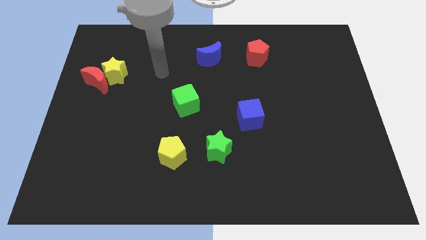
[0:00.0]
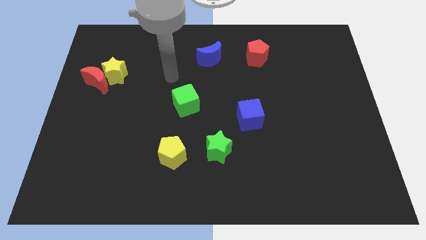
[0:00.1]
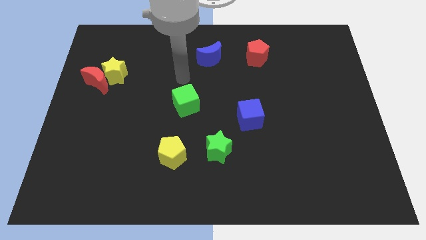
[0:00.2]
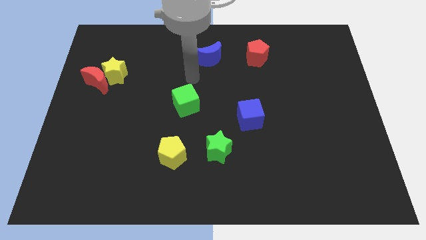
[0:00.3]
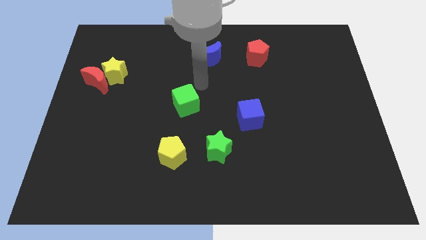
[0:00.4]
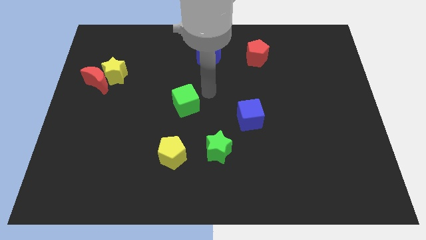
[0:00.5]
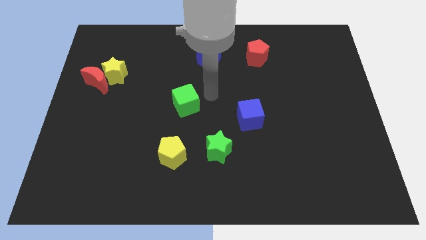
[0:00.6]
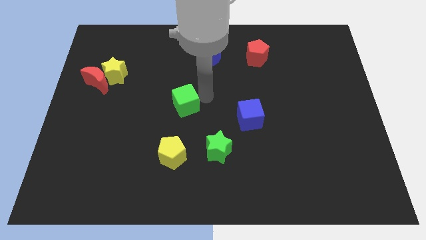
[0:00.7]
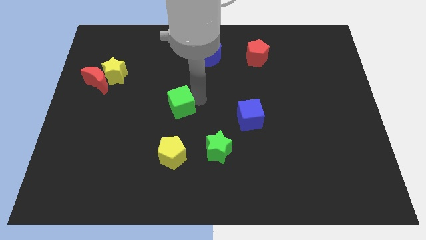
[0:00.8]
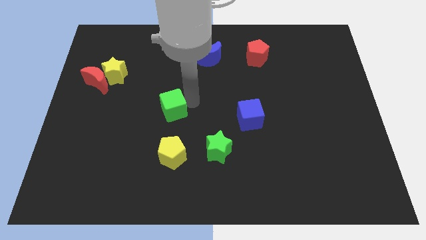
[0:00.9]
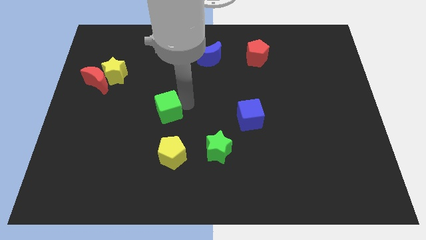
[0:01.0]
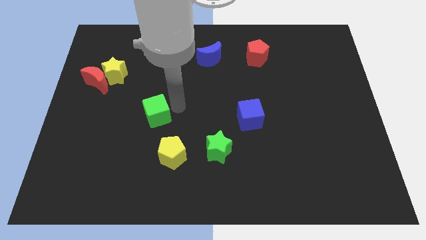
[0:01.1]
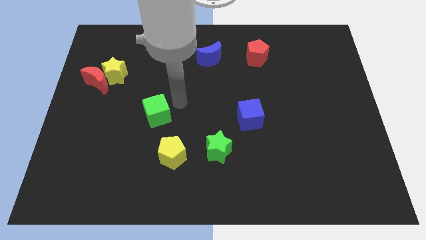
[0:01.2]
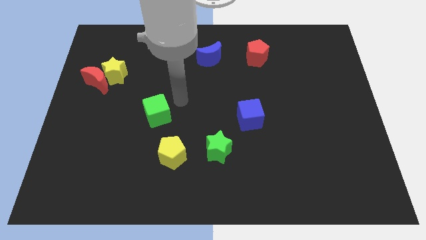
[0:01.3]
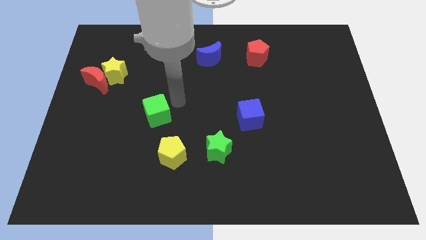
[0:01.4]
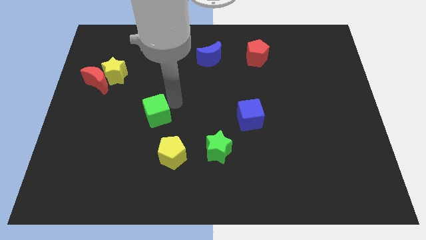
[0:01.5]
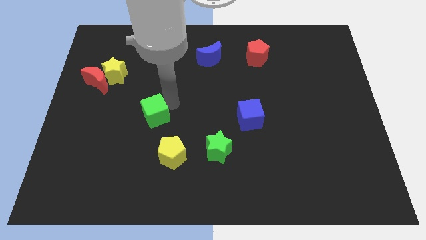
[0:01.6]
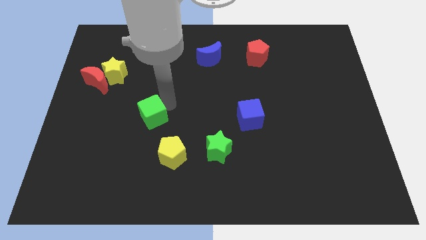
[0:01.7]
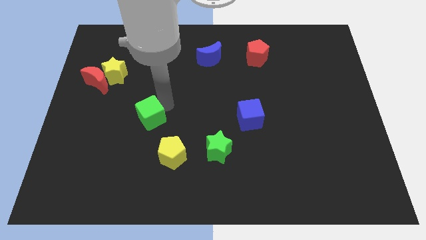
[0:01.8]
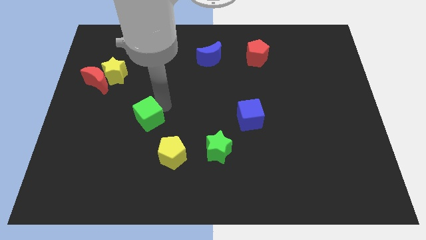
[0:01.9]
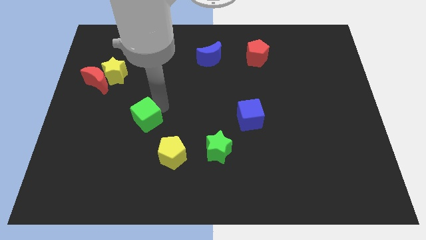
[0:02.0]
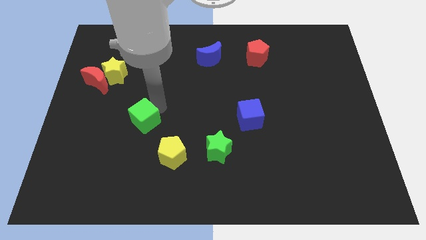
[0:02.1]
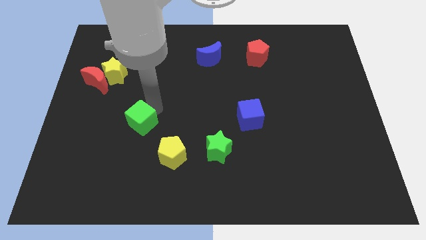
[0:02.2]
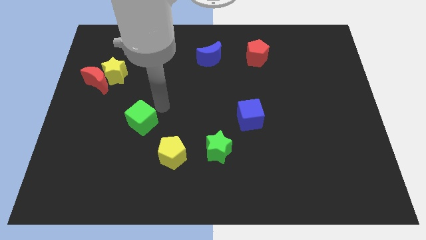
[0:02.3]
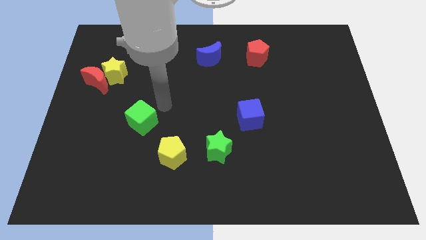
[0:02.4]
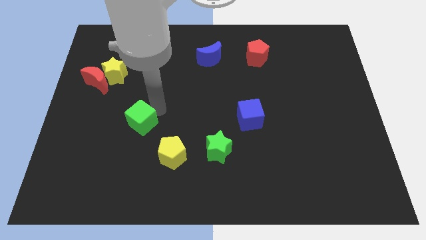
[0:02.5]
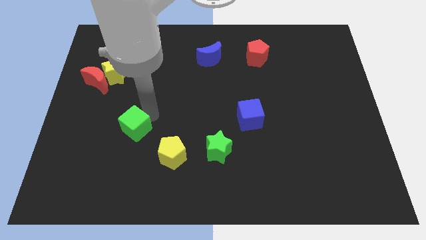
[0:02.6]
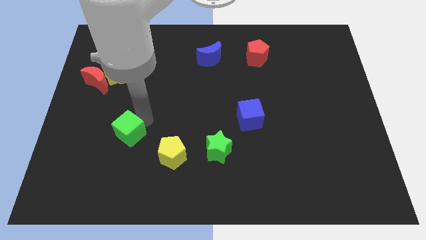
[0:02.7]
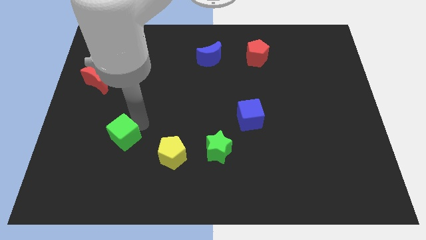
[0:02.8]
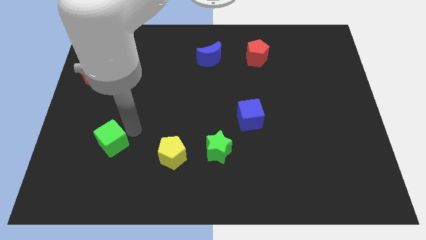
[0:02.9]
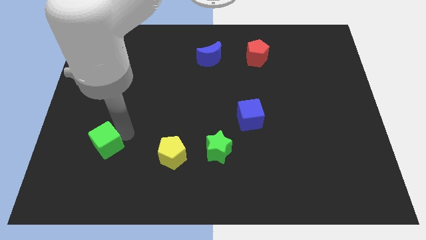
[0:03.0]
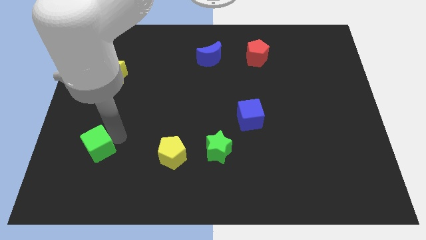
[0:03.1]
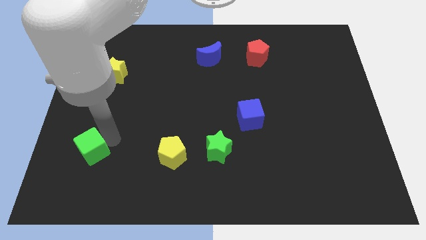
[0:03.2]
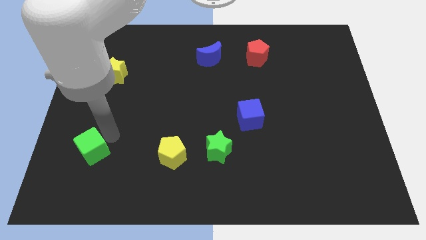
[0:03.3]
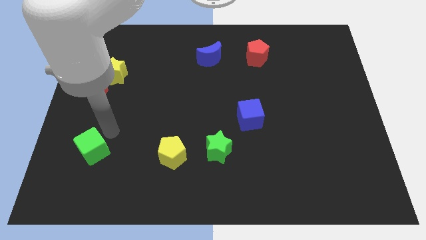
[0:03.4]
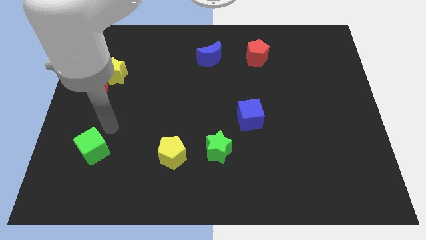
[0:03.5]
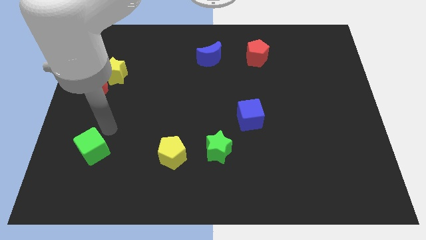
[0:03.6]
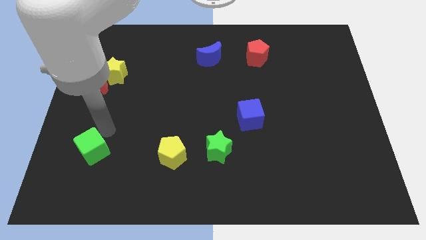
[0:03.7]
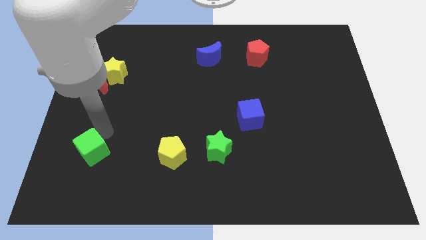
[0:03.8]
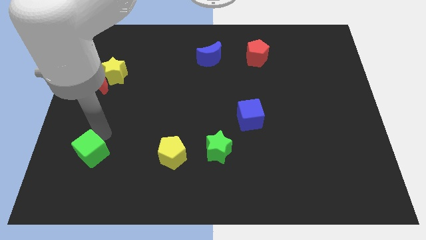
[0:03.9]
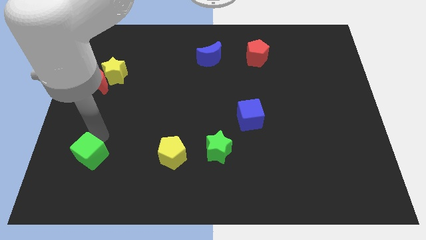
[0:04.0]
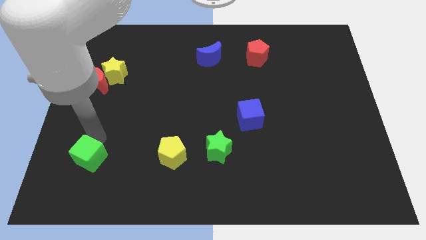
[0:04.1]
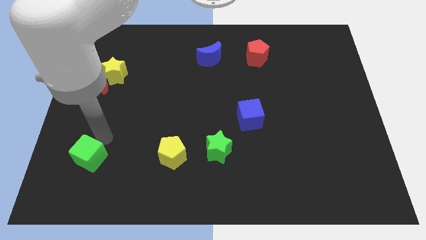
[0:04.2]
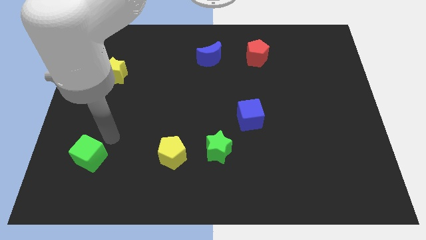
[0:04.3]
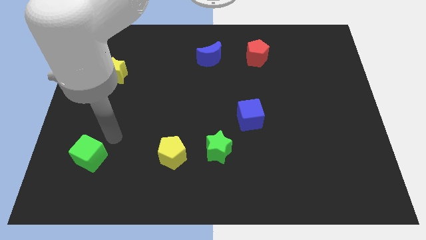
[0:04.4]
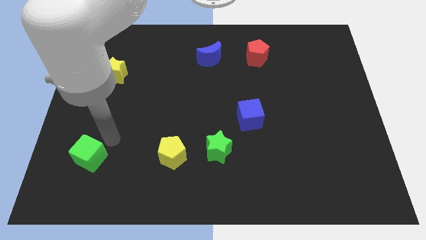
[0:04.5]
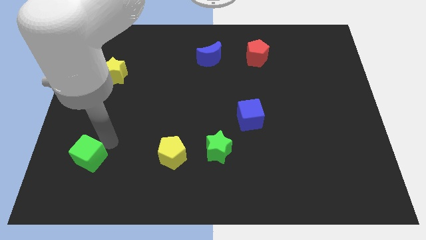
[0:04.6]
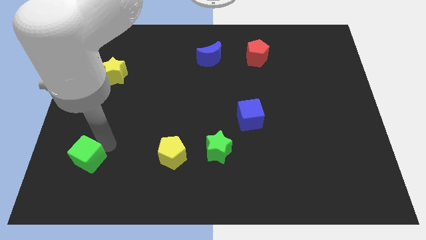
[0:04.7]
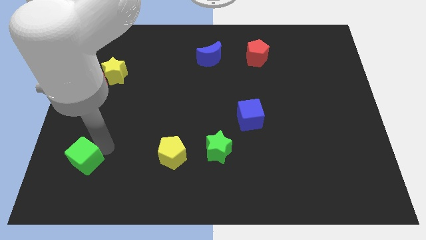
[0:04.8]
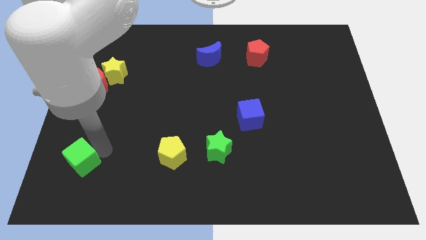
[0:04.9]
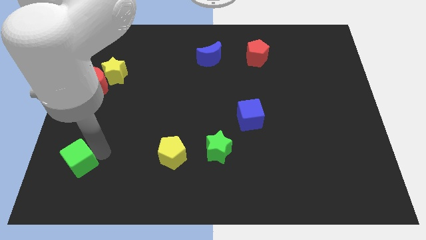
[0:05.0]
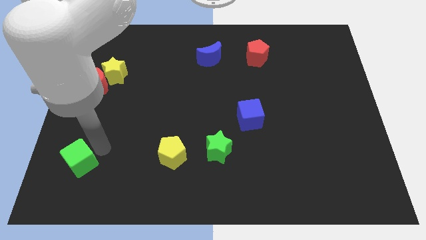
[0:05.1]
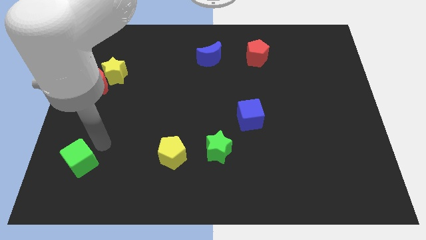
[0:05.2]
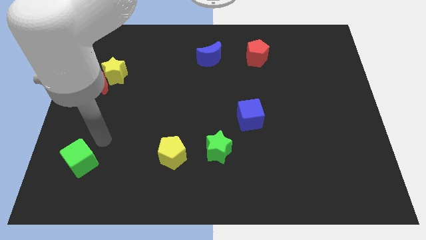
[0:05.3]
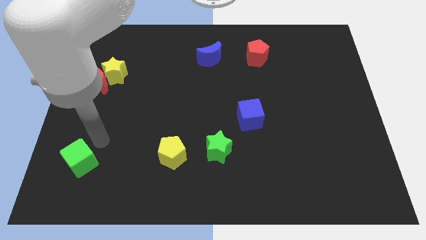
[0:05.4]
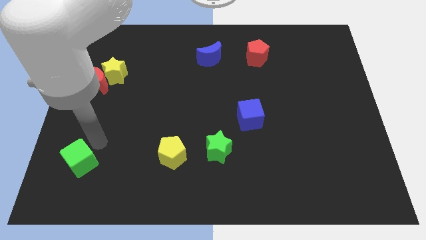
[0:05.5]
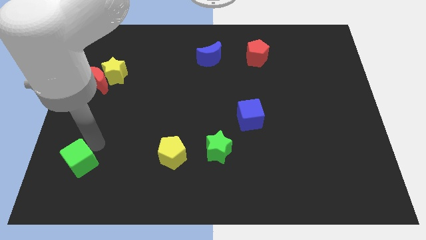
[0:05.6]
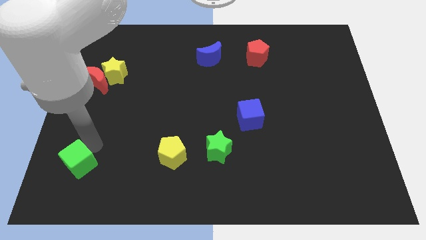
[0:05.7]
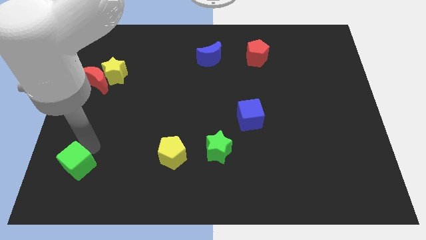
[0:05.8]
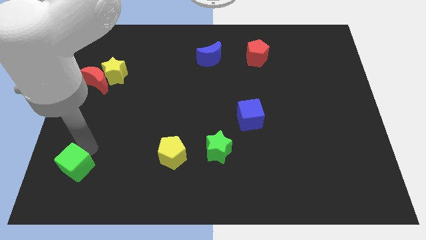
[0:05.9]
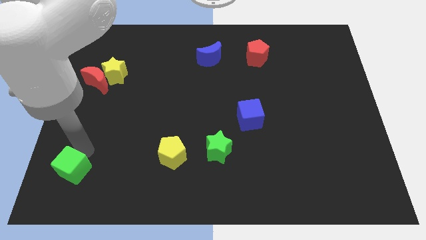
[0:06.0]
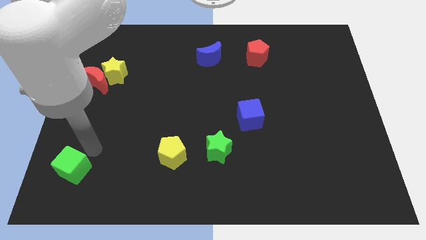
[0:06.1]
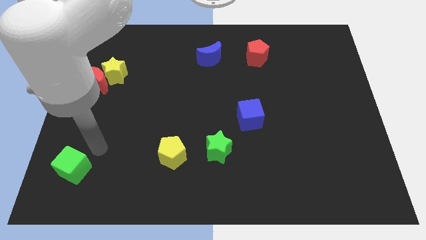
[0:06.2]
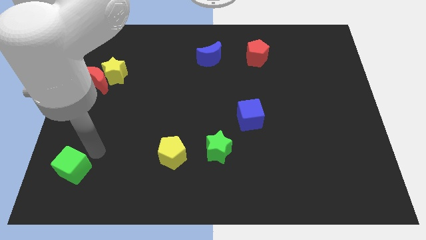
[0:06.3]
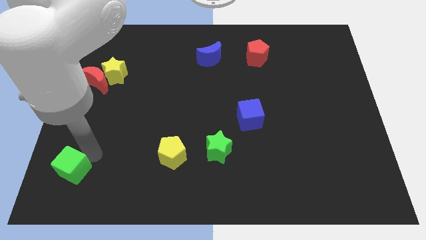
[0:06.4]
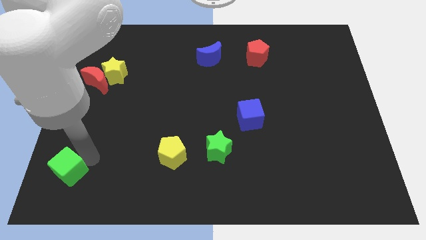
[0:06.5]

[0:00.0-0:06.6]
move the green cube to the lower left corner

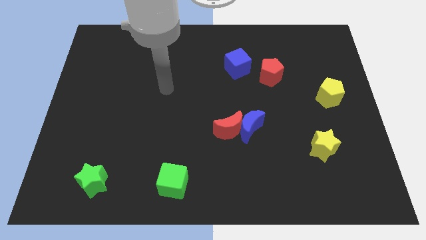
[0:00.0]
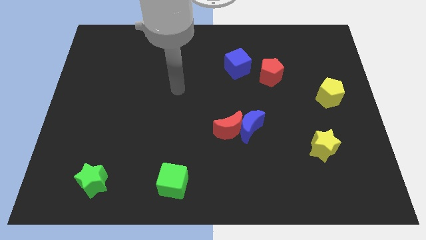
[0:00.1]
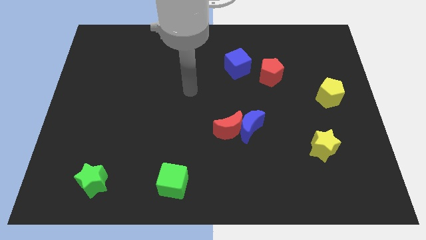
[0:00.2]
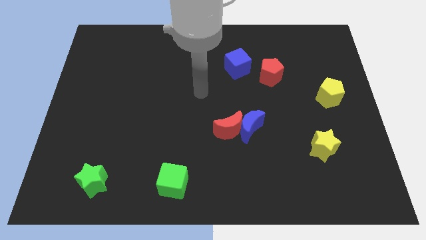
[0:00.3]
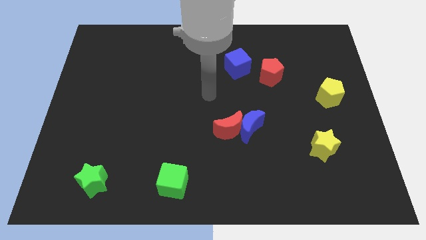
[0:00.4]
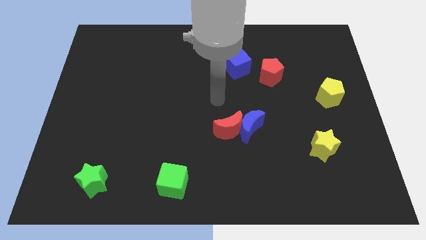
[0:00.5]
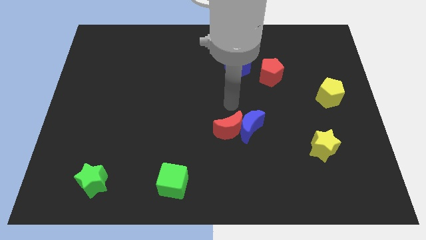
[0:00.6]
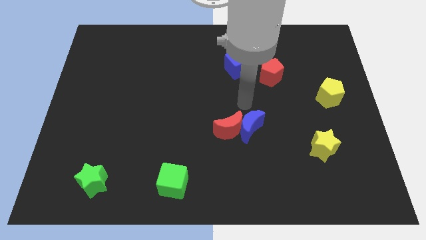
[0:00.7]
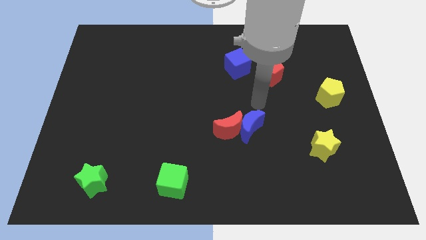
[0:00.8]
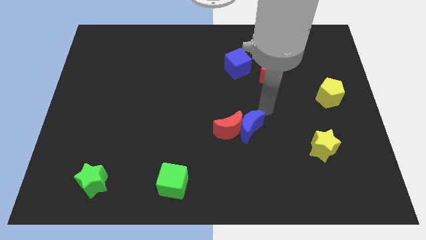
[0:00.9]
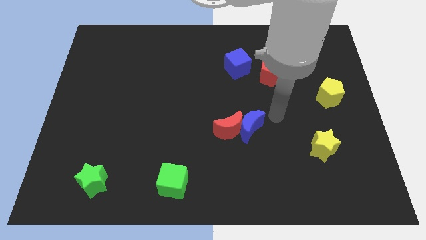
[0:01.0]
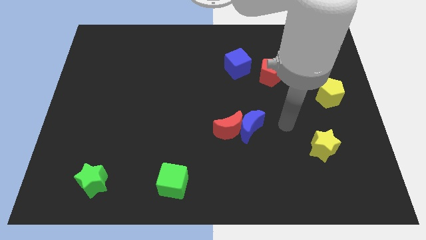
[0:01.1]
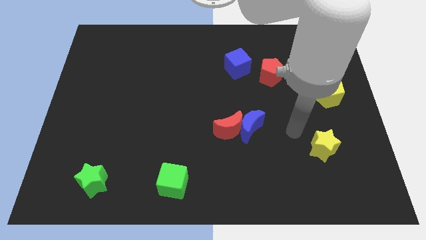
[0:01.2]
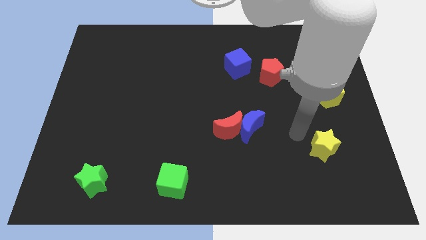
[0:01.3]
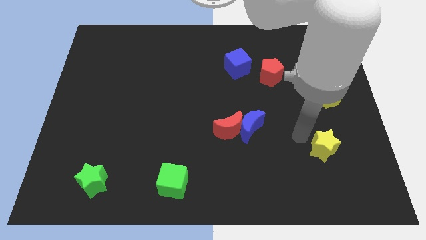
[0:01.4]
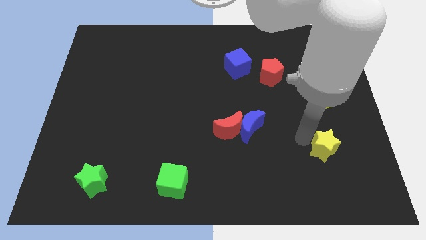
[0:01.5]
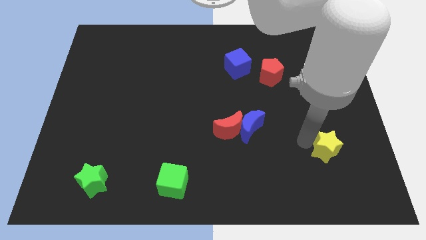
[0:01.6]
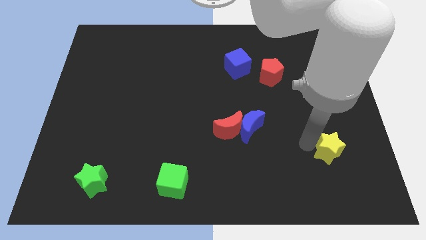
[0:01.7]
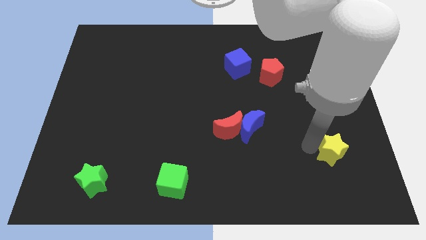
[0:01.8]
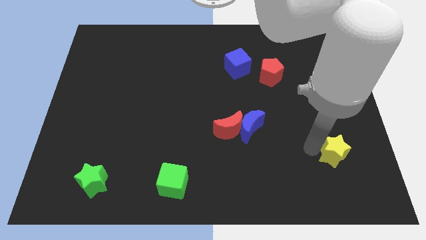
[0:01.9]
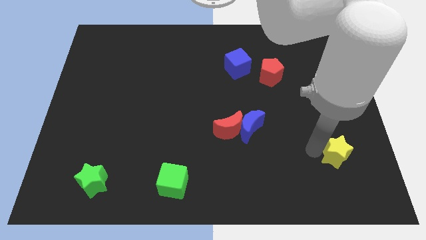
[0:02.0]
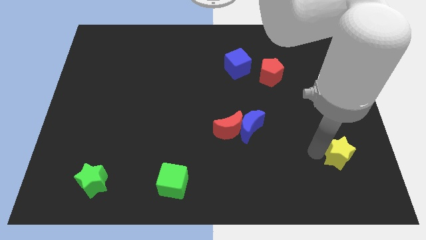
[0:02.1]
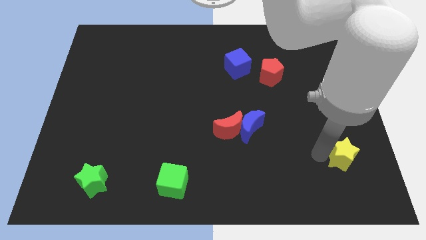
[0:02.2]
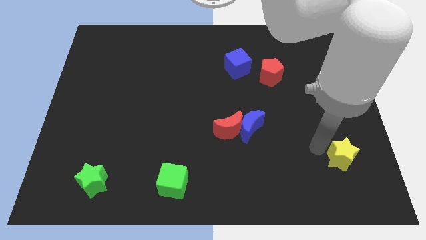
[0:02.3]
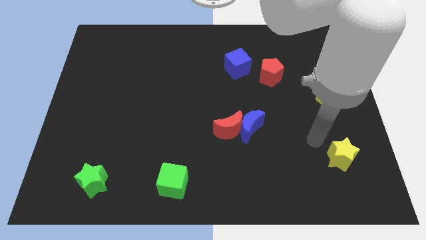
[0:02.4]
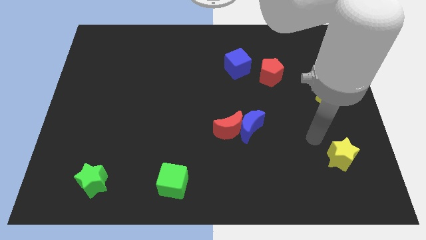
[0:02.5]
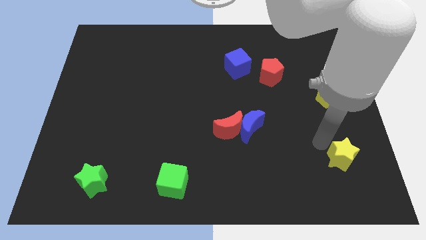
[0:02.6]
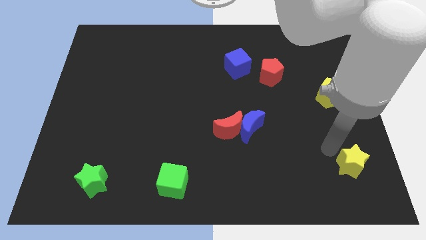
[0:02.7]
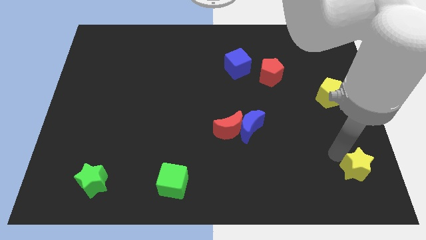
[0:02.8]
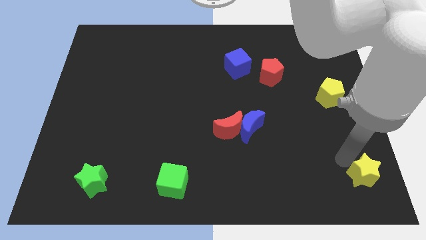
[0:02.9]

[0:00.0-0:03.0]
slide the yellow star to the bottom right corner
